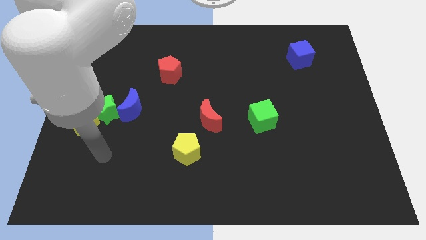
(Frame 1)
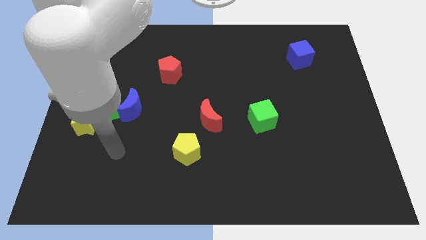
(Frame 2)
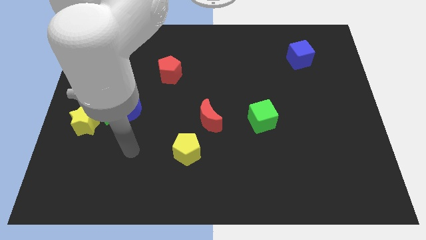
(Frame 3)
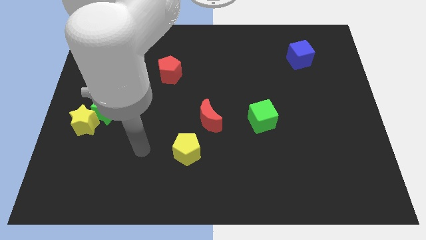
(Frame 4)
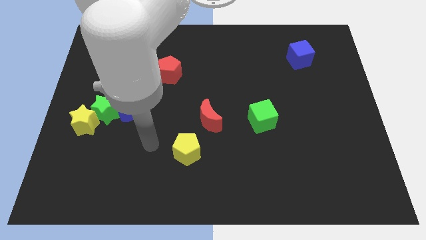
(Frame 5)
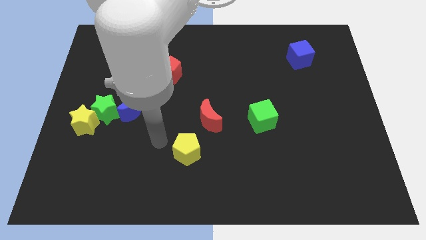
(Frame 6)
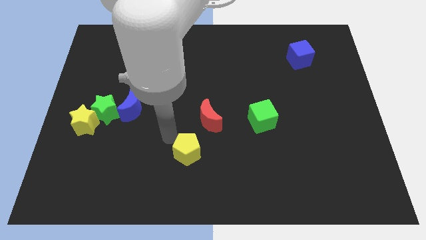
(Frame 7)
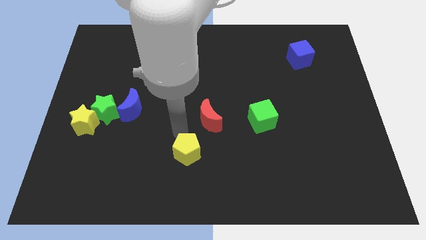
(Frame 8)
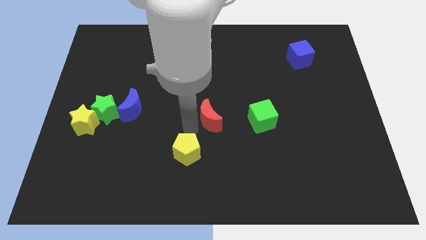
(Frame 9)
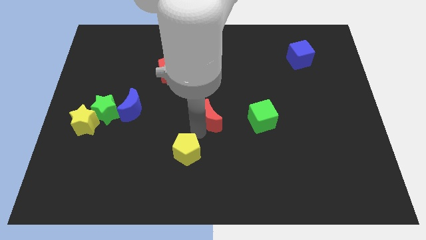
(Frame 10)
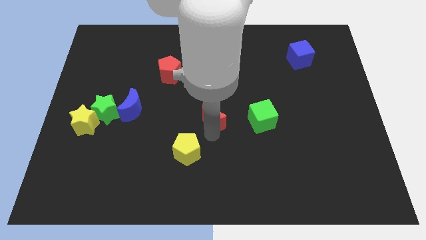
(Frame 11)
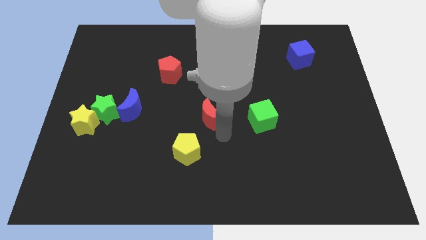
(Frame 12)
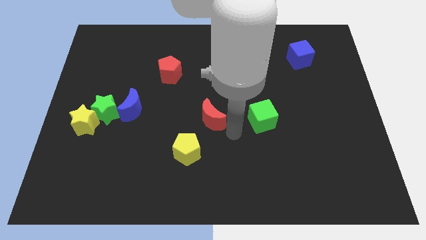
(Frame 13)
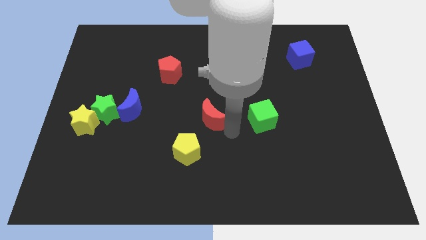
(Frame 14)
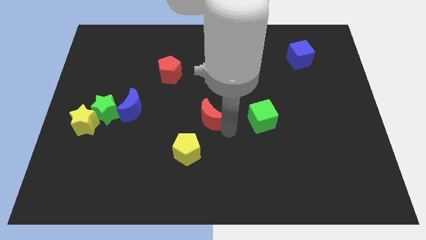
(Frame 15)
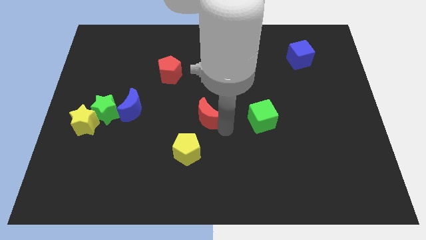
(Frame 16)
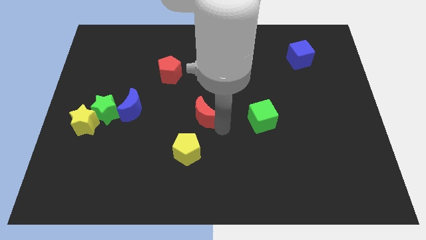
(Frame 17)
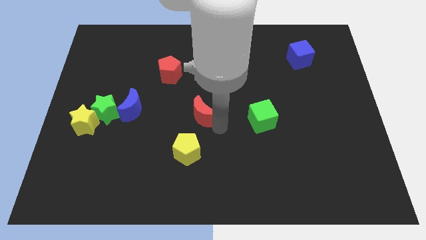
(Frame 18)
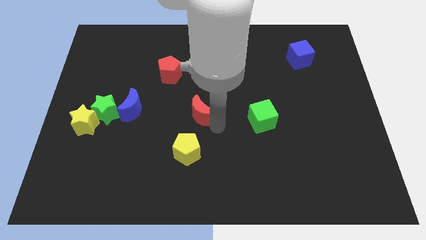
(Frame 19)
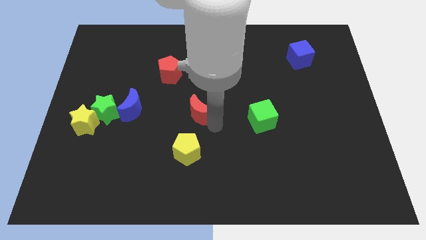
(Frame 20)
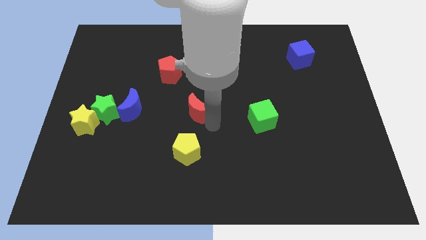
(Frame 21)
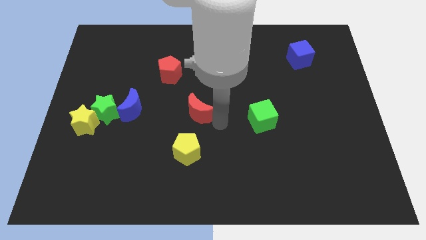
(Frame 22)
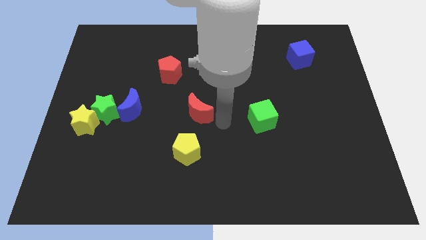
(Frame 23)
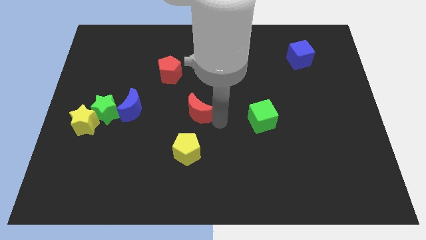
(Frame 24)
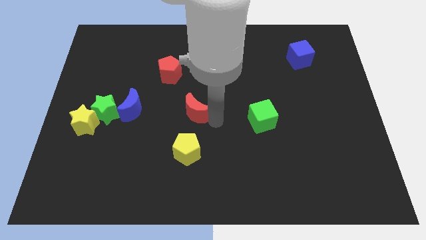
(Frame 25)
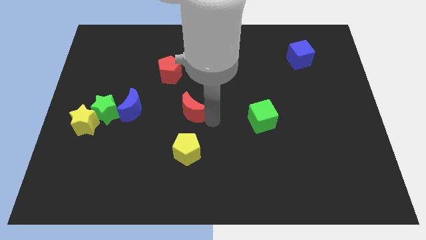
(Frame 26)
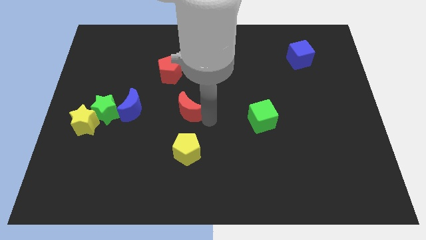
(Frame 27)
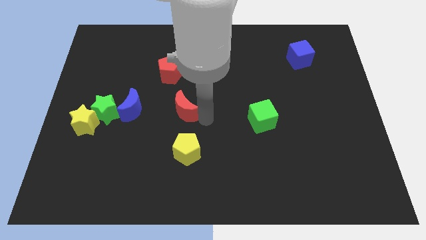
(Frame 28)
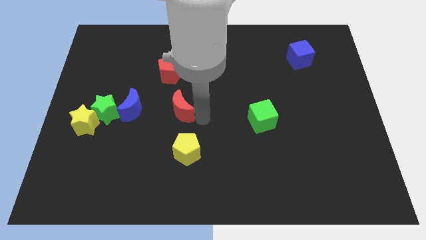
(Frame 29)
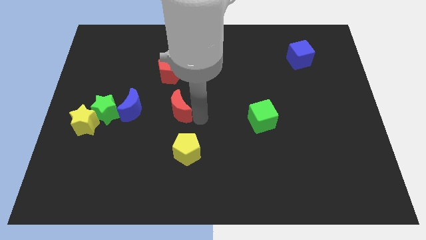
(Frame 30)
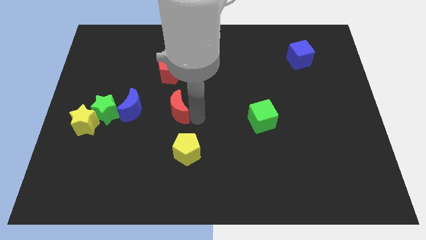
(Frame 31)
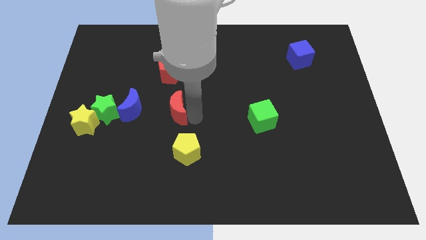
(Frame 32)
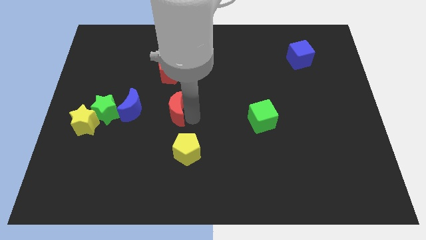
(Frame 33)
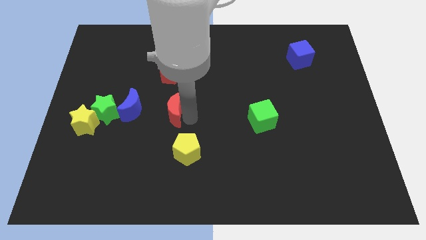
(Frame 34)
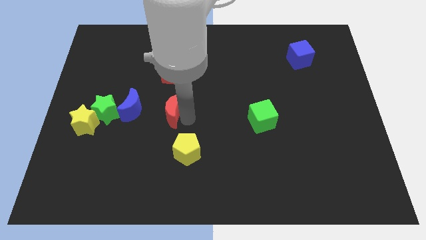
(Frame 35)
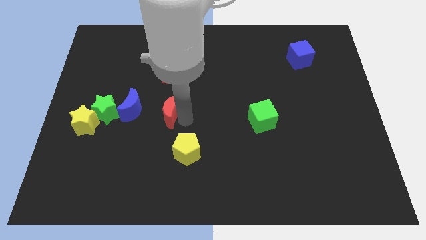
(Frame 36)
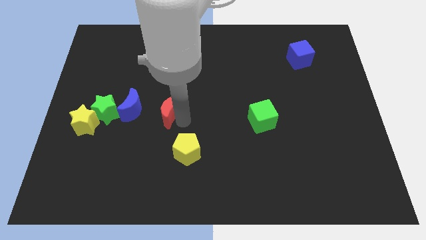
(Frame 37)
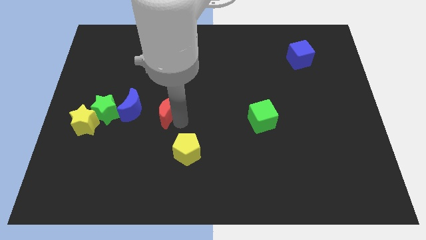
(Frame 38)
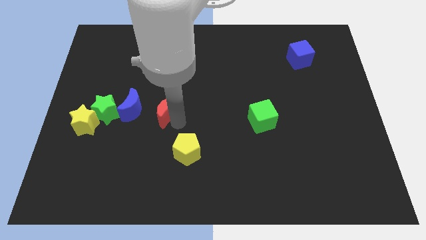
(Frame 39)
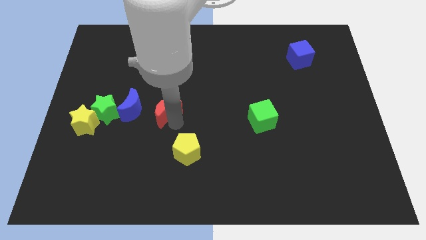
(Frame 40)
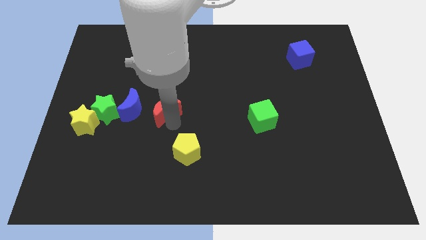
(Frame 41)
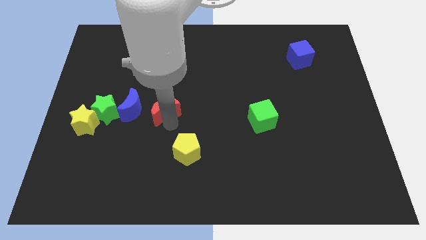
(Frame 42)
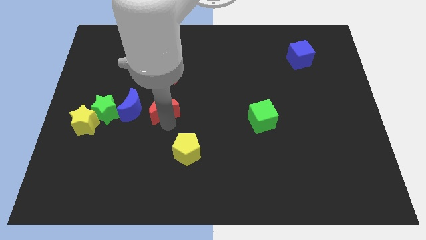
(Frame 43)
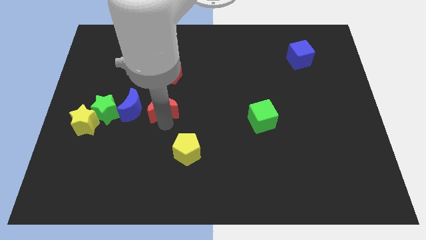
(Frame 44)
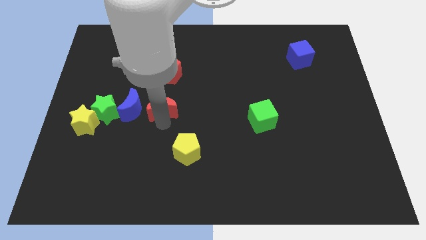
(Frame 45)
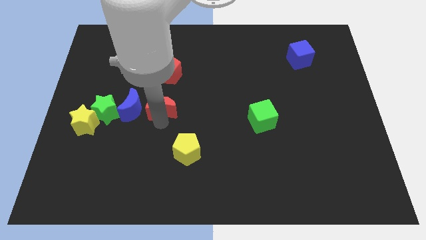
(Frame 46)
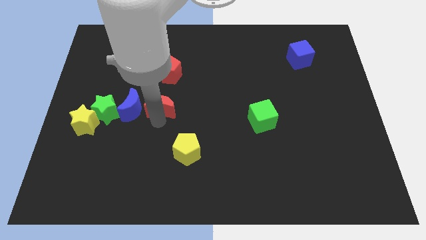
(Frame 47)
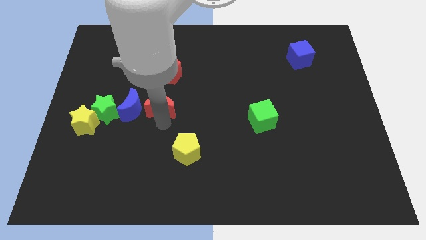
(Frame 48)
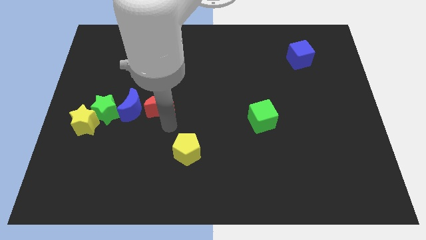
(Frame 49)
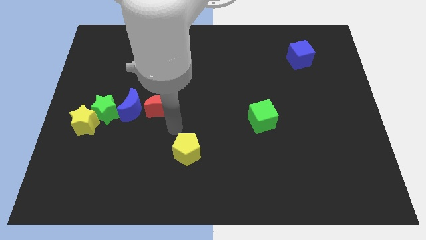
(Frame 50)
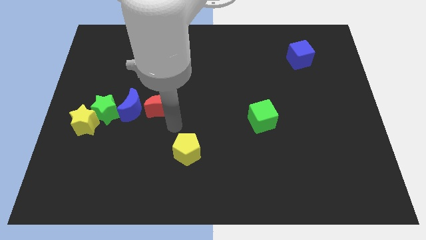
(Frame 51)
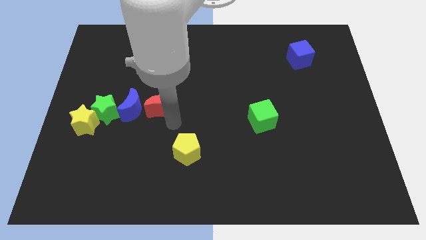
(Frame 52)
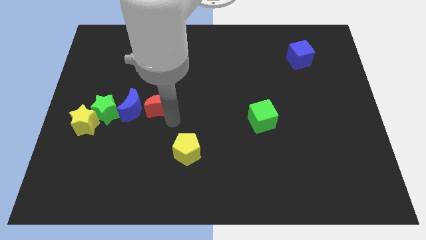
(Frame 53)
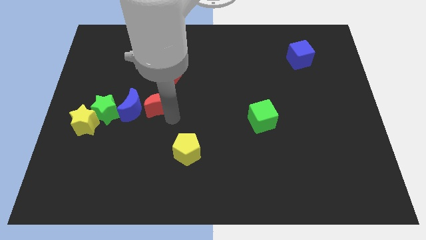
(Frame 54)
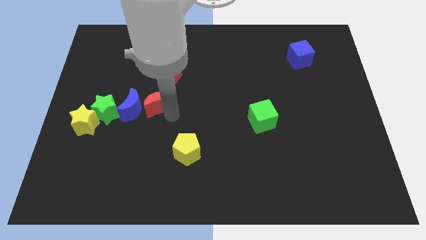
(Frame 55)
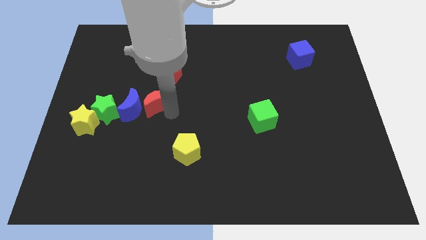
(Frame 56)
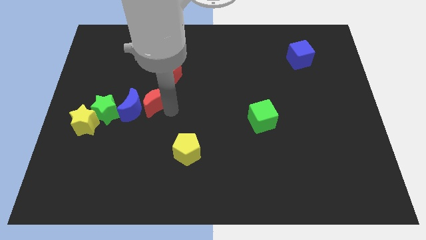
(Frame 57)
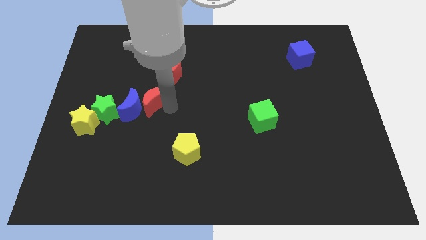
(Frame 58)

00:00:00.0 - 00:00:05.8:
move the red moon to the bottom left of the red pentagon

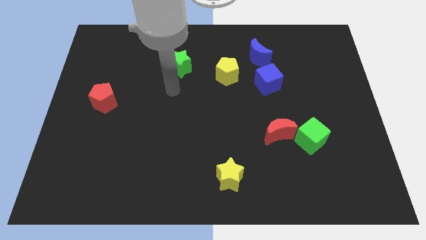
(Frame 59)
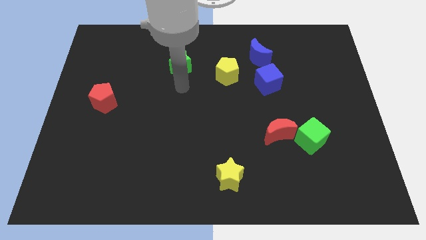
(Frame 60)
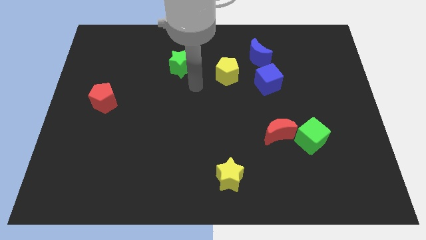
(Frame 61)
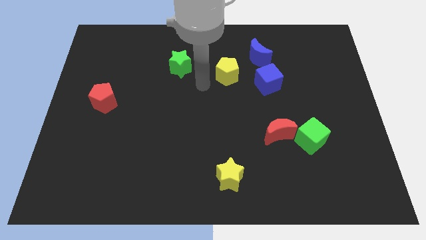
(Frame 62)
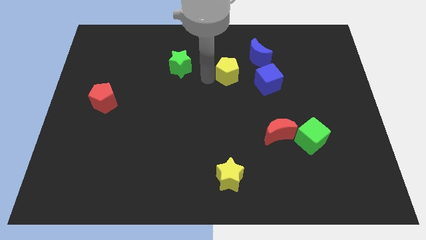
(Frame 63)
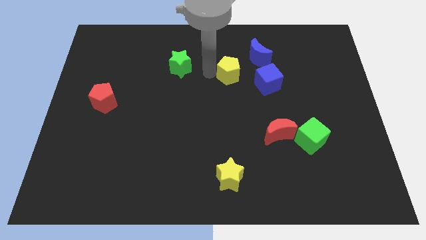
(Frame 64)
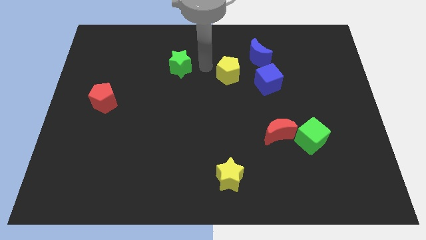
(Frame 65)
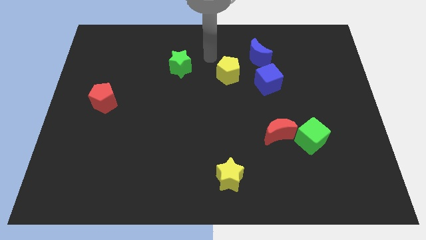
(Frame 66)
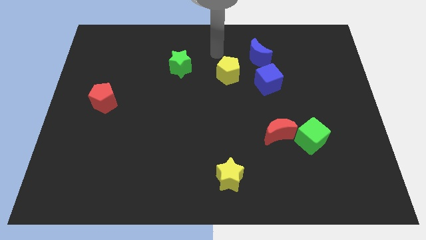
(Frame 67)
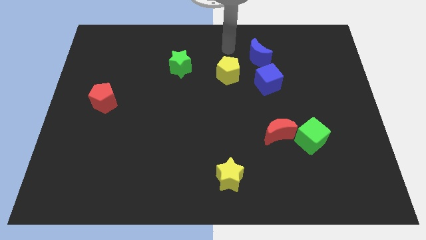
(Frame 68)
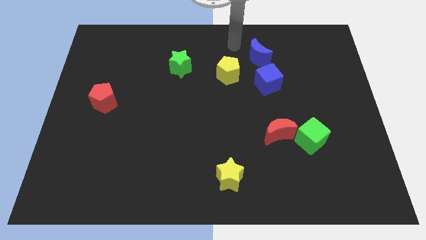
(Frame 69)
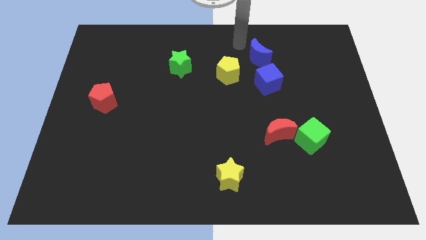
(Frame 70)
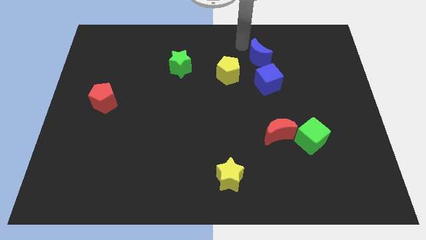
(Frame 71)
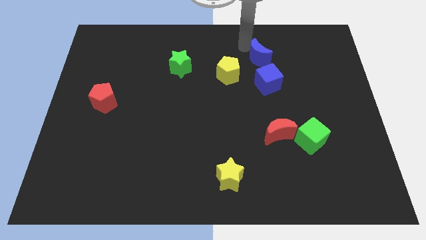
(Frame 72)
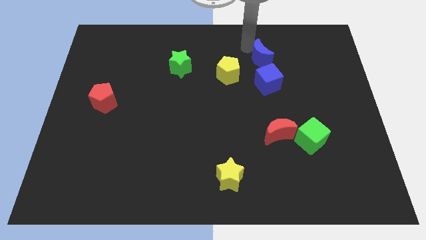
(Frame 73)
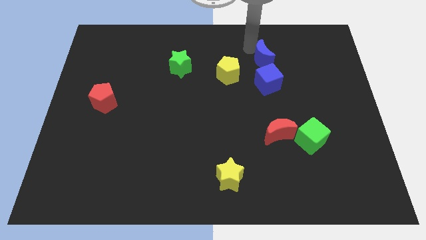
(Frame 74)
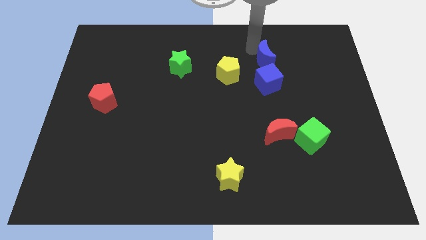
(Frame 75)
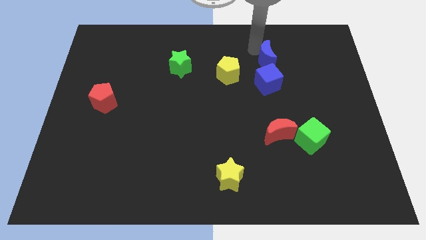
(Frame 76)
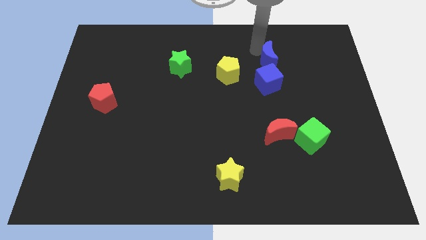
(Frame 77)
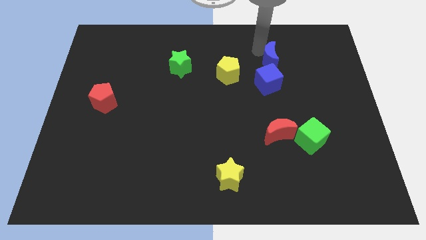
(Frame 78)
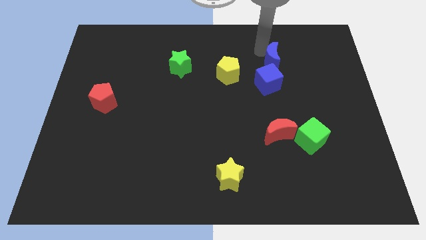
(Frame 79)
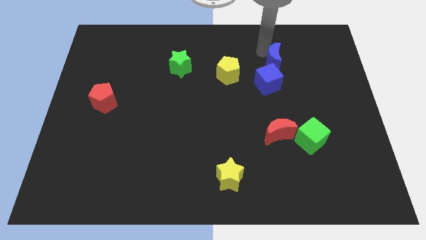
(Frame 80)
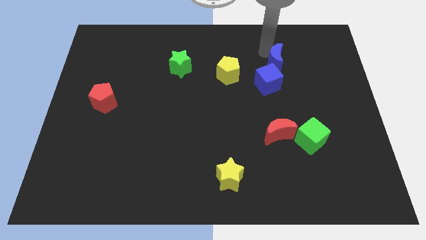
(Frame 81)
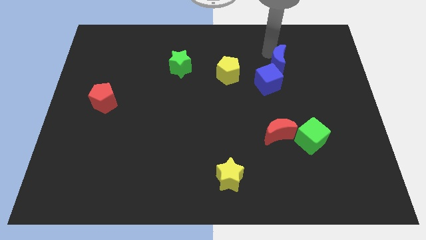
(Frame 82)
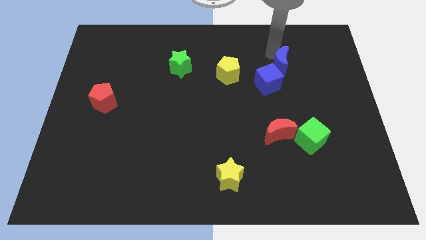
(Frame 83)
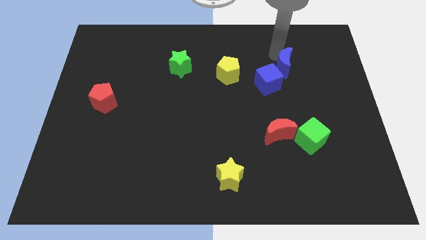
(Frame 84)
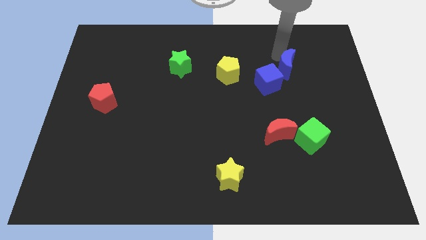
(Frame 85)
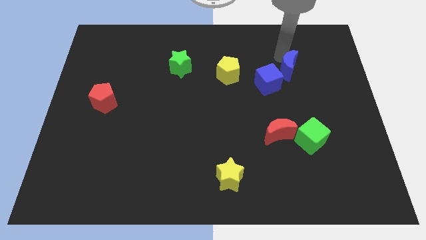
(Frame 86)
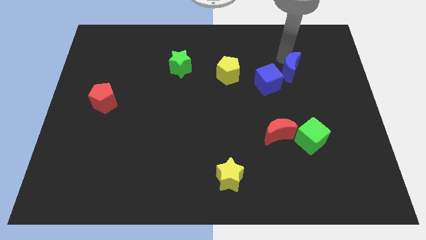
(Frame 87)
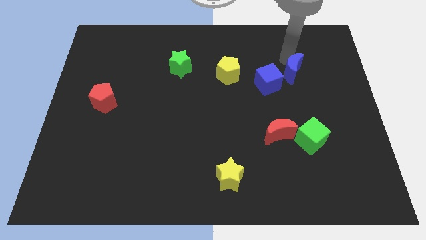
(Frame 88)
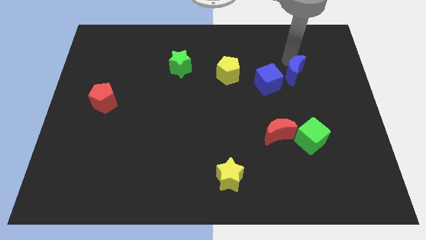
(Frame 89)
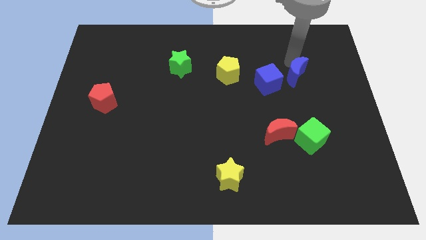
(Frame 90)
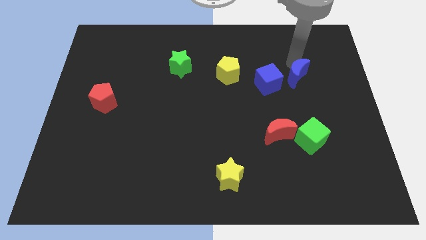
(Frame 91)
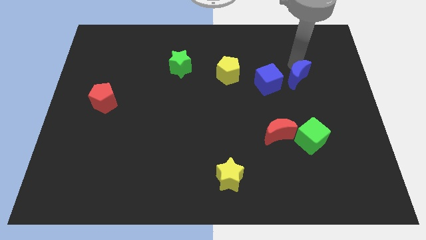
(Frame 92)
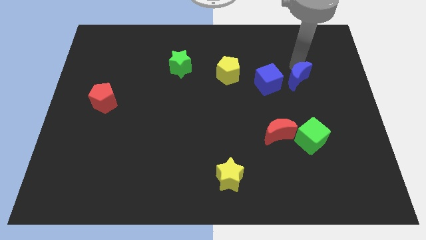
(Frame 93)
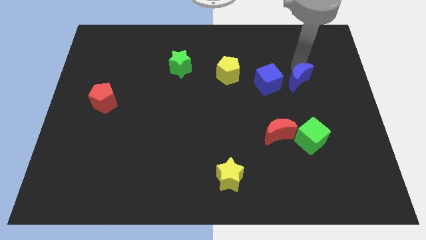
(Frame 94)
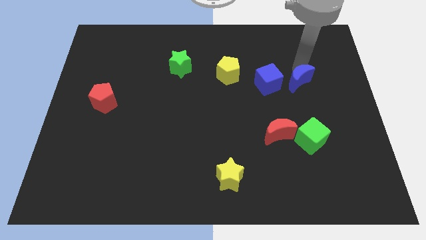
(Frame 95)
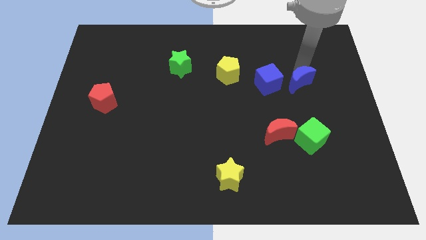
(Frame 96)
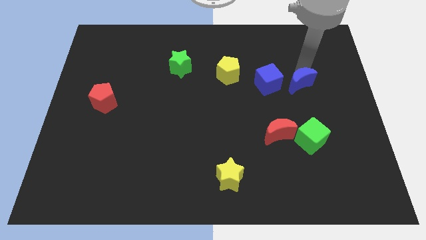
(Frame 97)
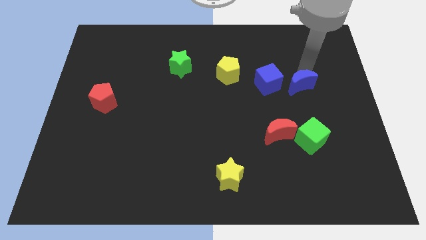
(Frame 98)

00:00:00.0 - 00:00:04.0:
slide the blue moon above the green cube
